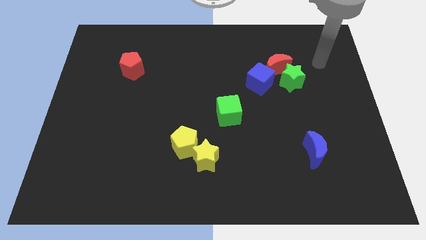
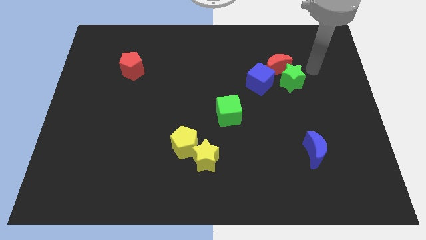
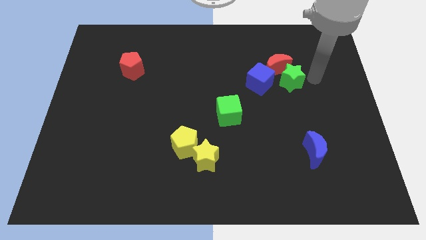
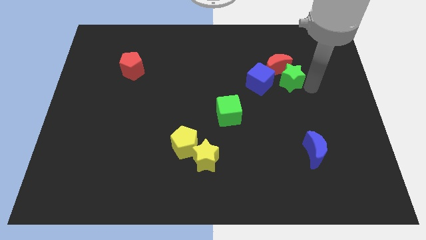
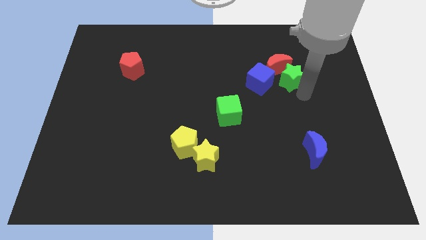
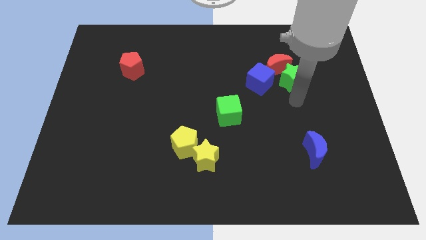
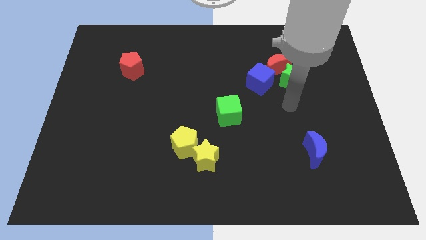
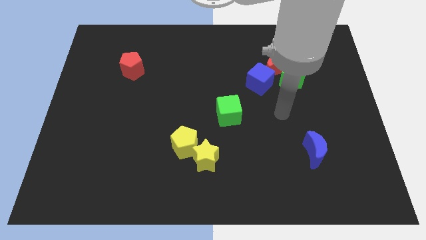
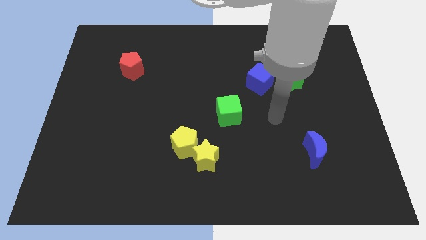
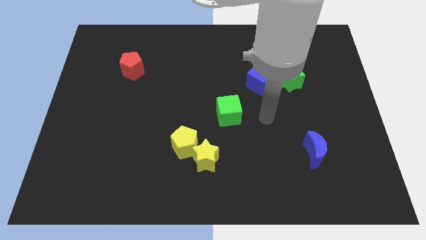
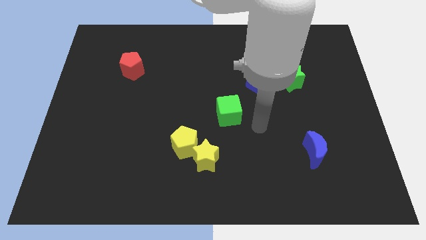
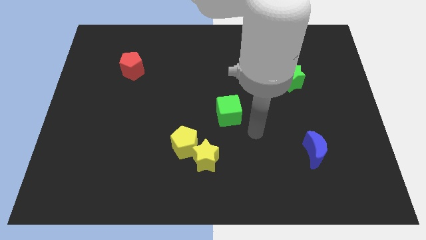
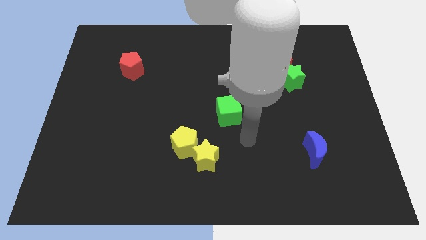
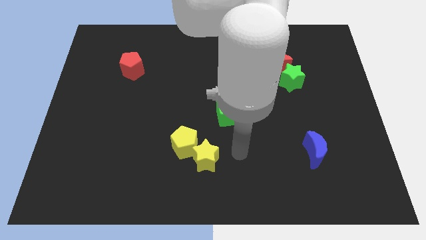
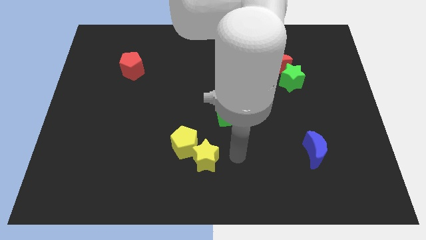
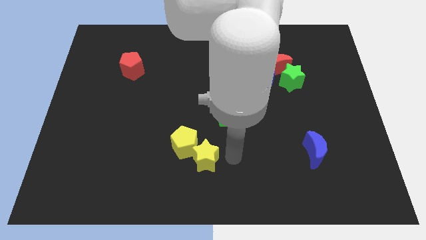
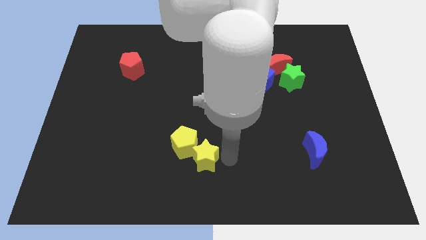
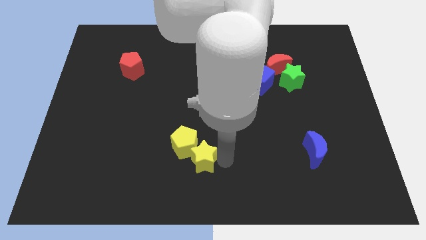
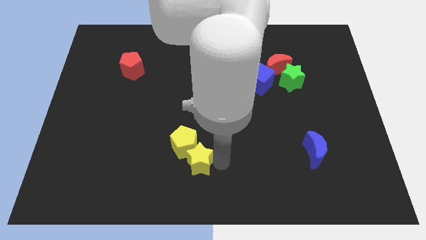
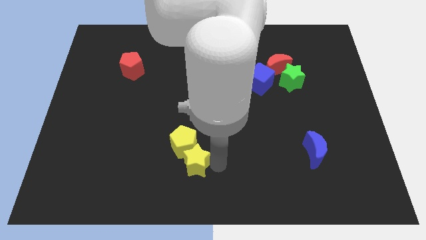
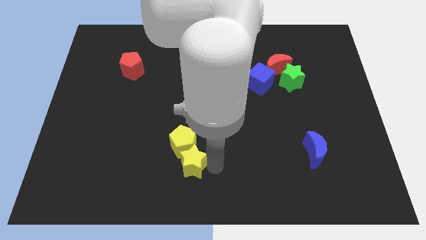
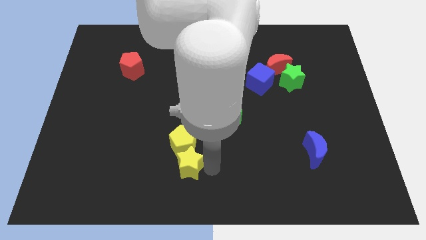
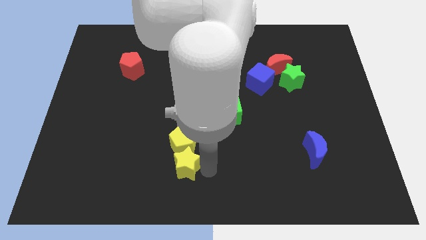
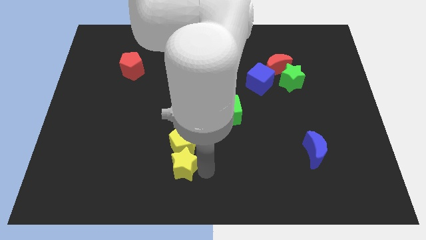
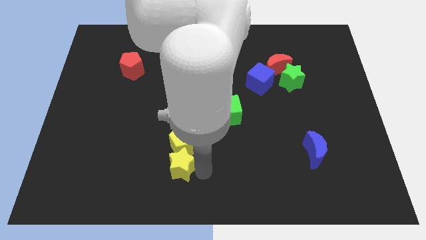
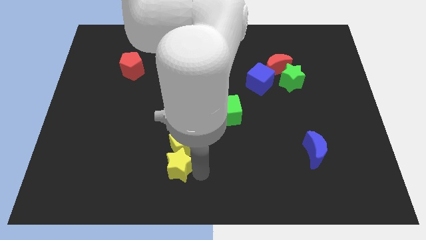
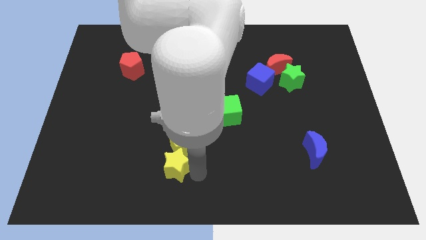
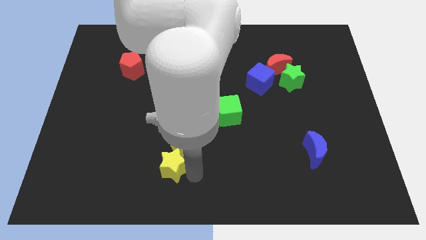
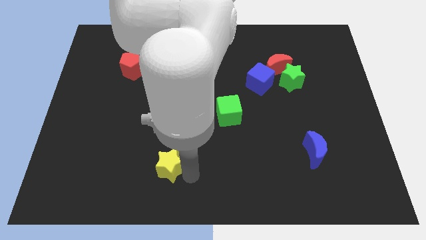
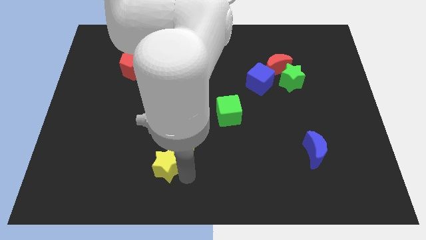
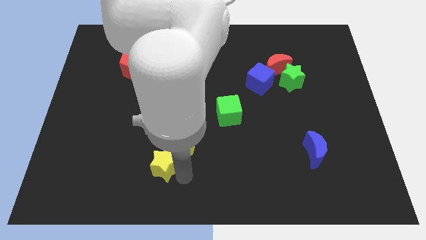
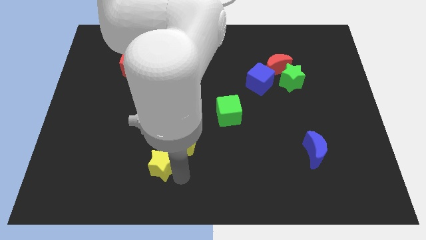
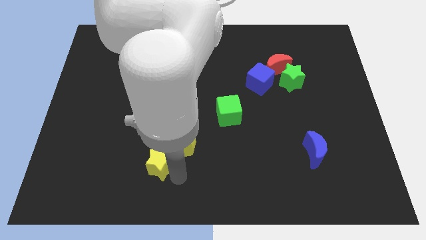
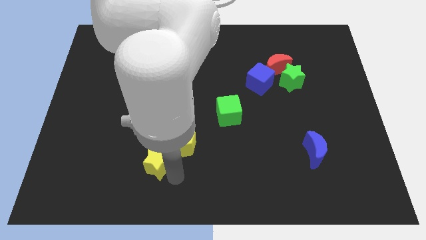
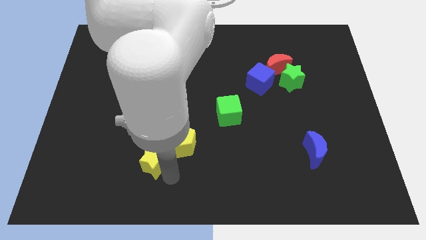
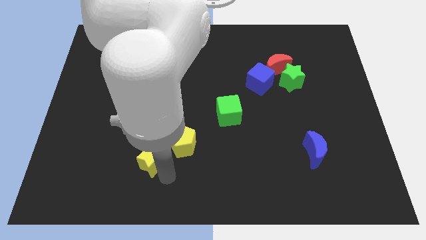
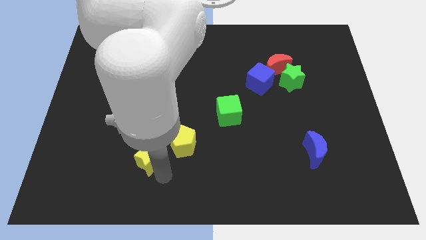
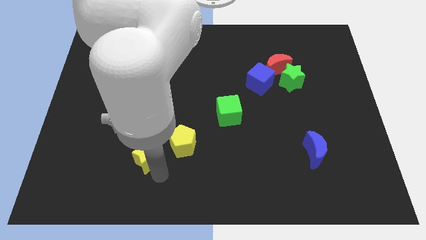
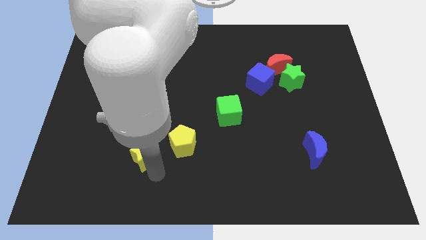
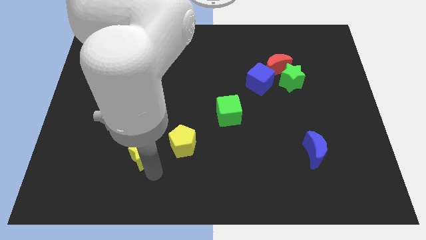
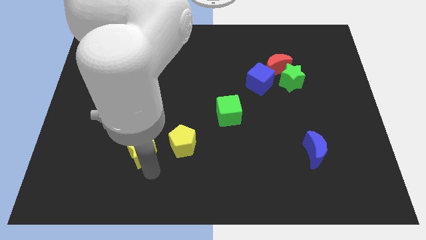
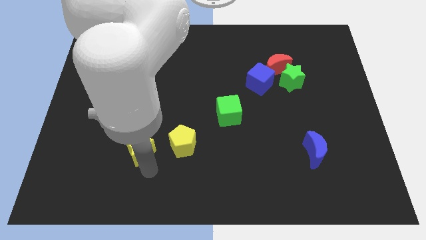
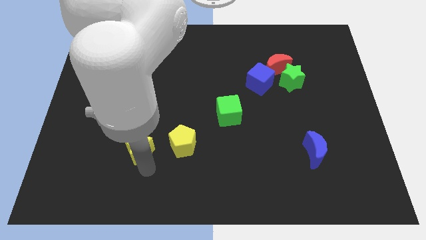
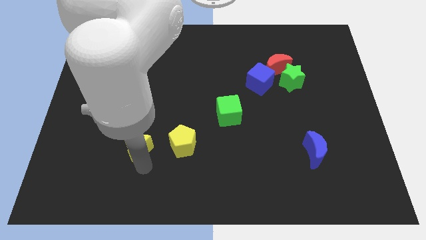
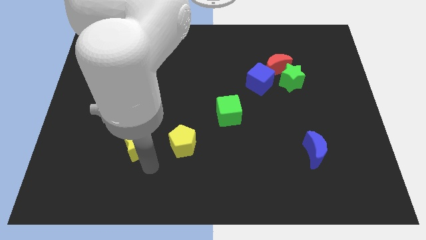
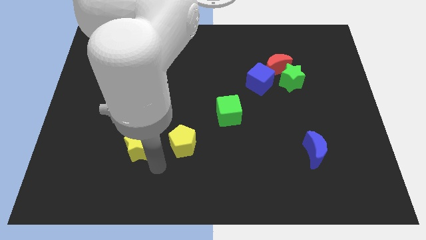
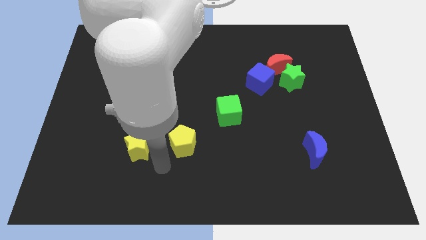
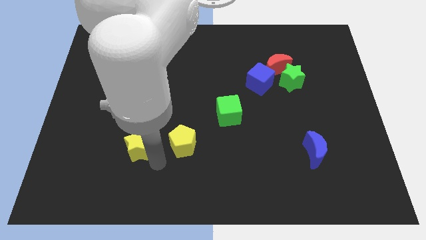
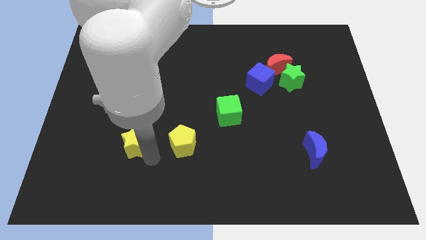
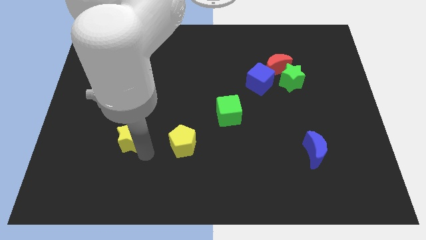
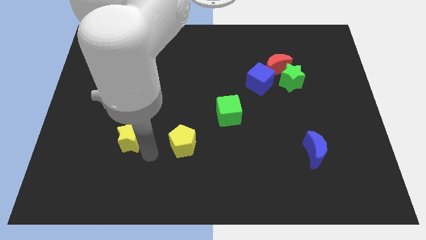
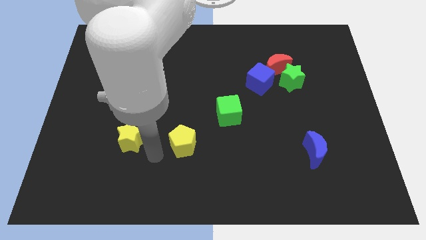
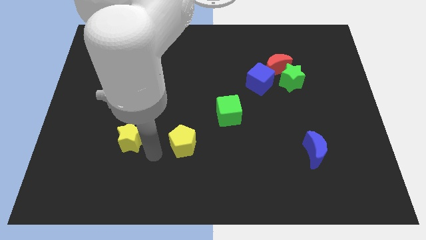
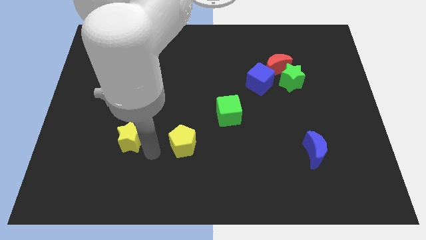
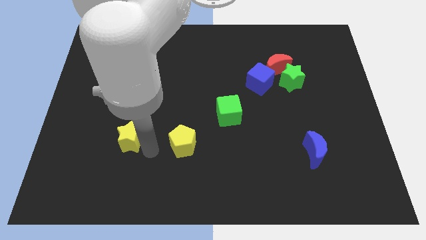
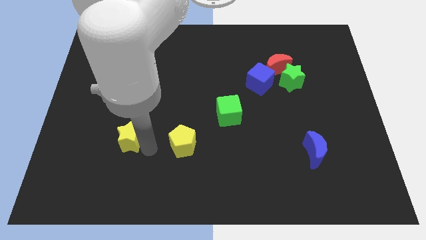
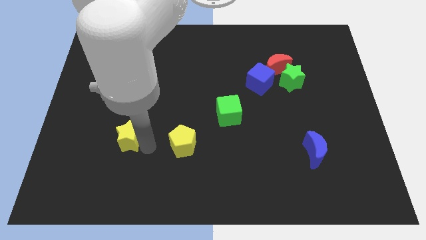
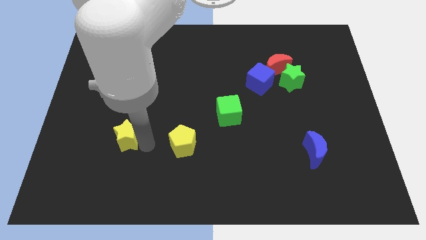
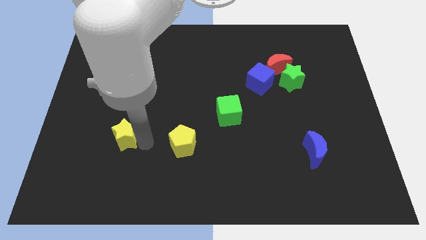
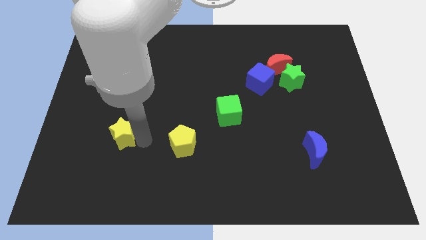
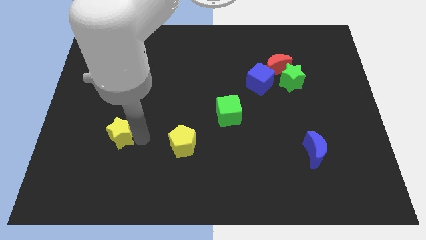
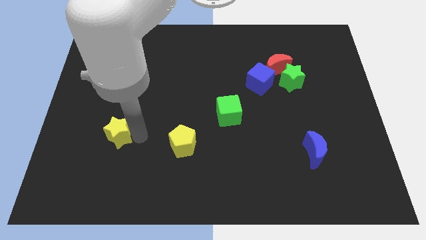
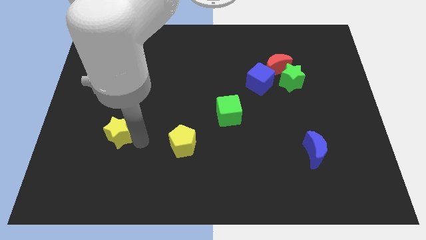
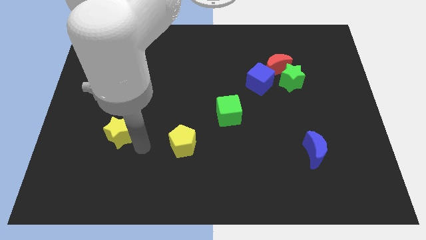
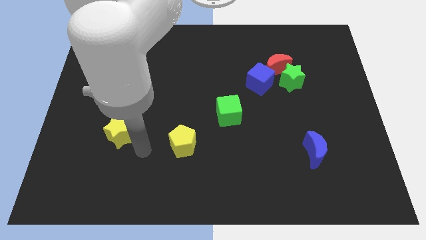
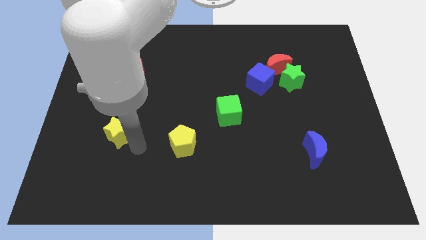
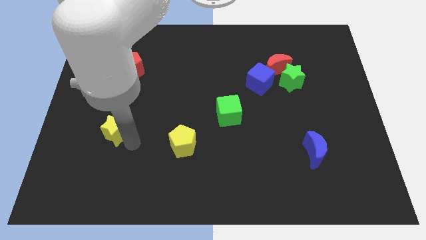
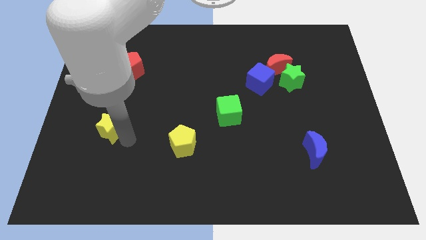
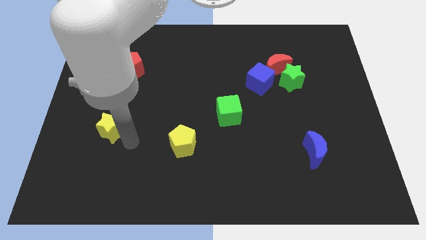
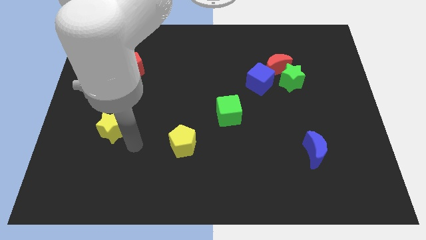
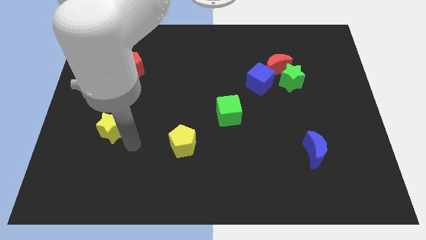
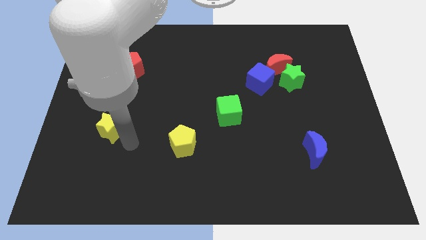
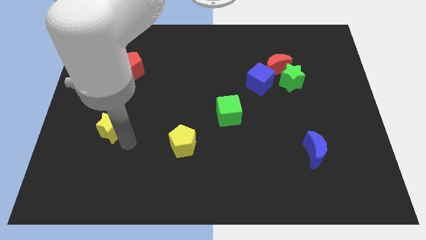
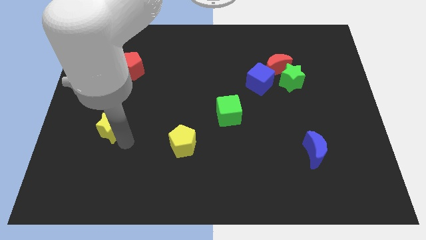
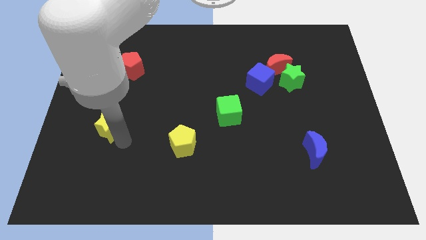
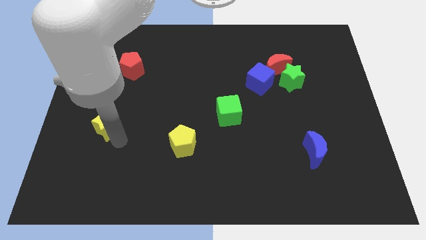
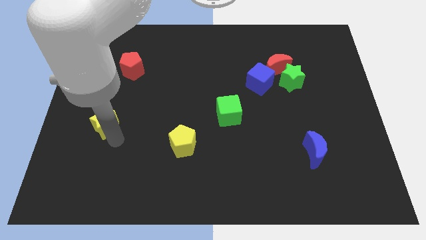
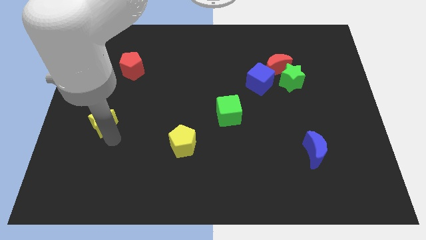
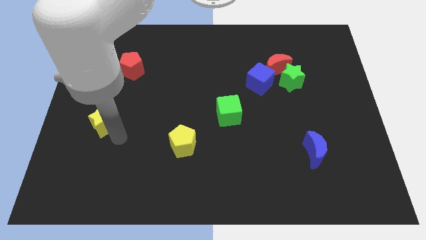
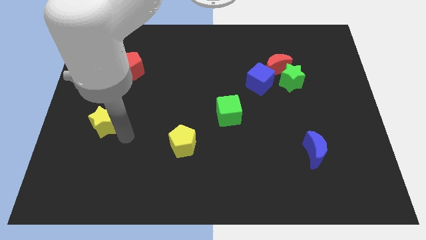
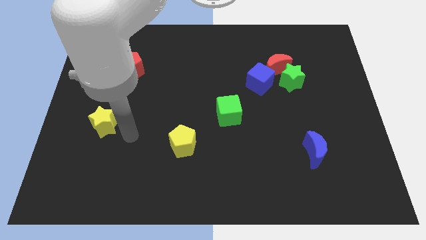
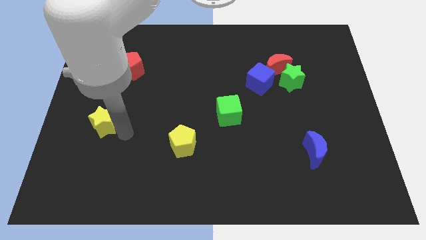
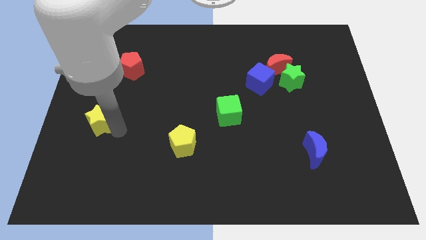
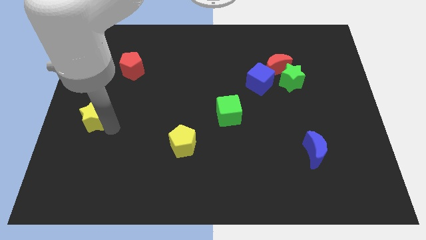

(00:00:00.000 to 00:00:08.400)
move the yellow star to the center left
